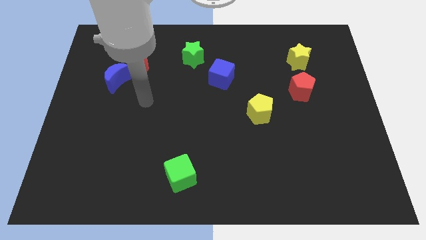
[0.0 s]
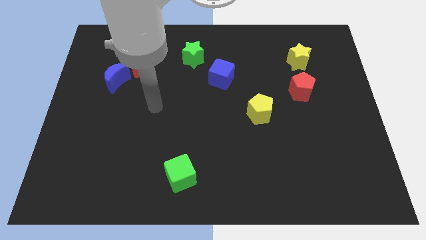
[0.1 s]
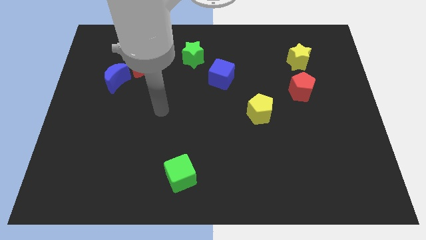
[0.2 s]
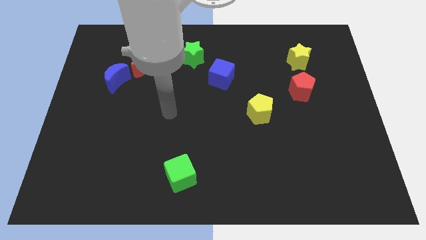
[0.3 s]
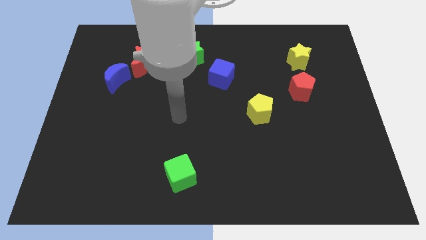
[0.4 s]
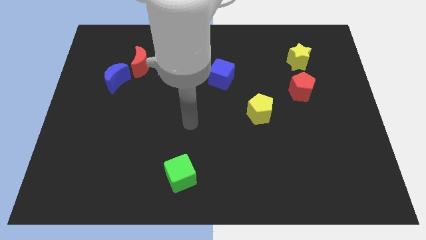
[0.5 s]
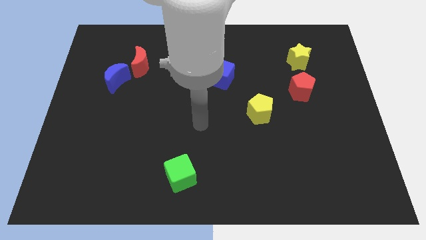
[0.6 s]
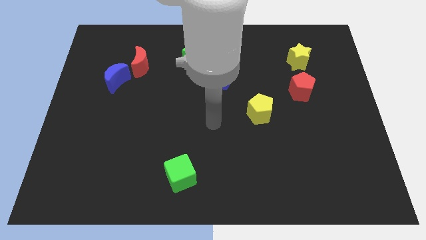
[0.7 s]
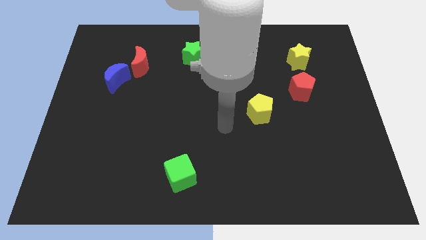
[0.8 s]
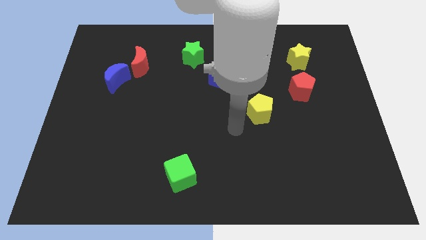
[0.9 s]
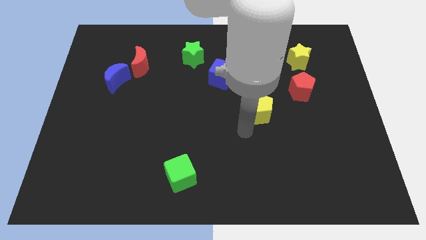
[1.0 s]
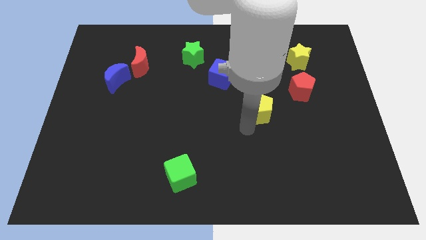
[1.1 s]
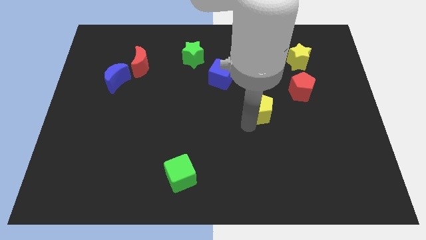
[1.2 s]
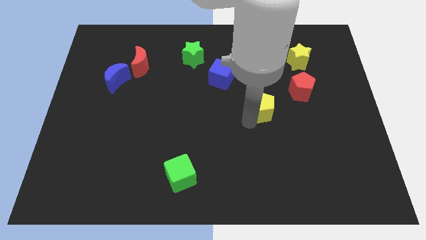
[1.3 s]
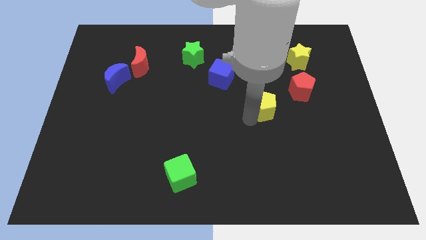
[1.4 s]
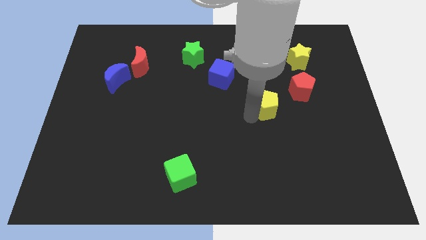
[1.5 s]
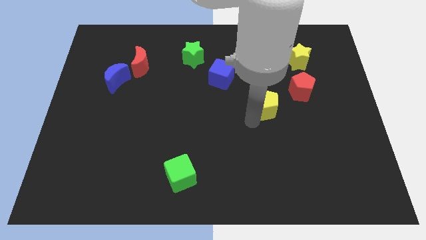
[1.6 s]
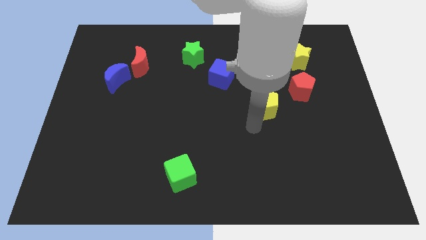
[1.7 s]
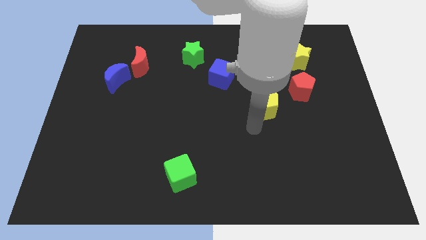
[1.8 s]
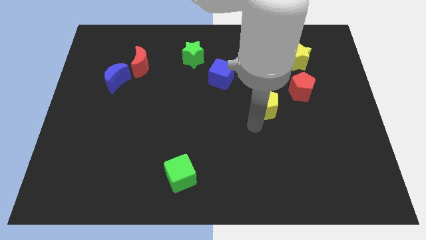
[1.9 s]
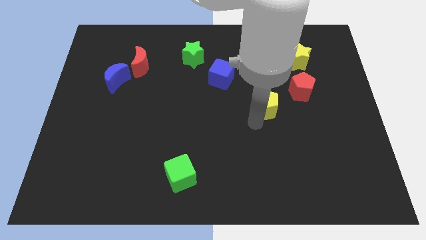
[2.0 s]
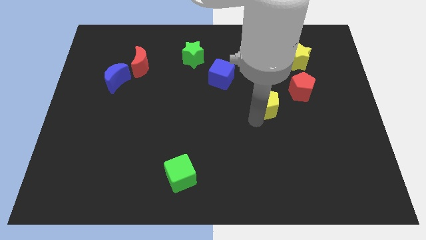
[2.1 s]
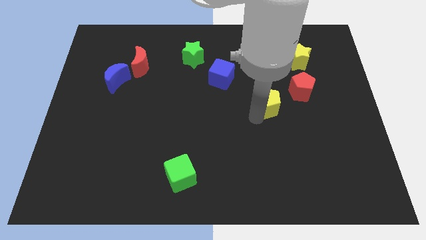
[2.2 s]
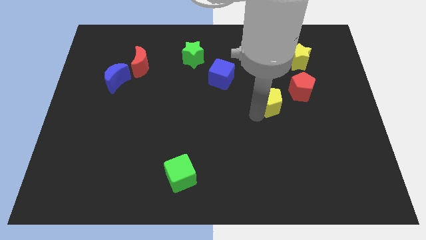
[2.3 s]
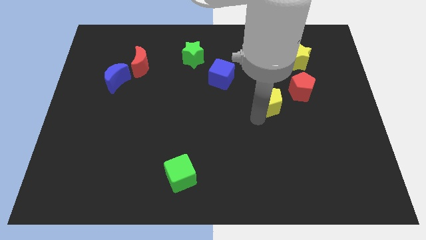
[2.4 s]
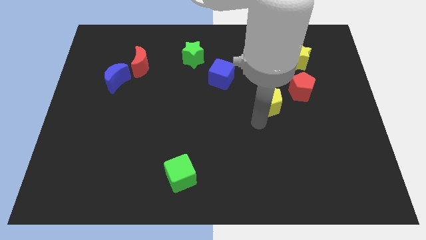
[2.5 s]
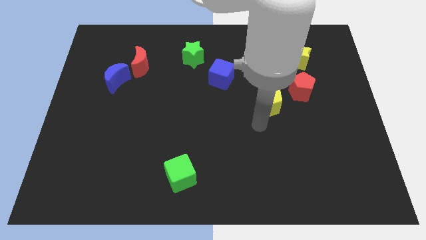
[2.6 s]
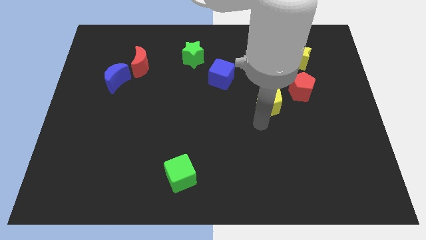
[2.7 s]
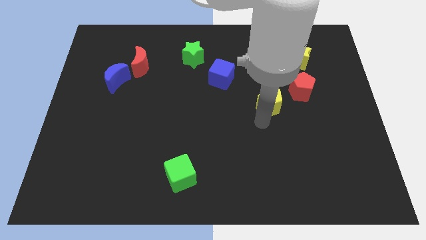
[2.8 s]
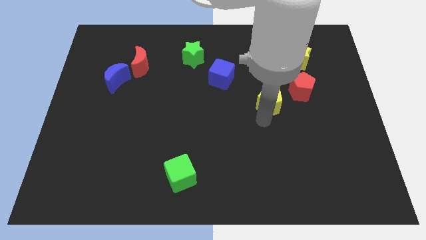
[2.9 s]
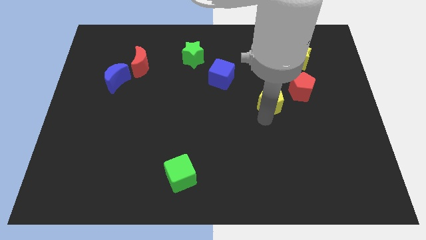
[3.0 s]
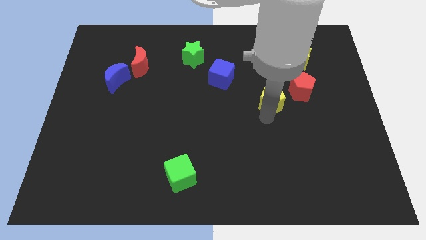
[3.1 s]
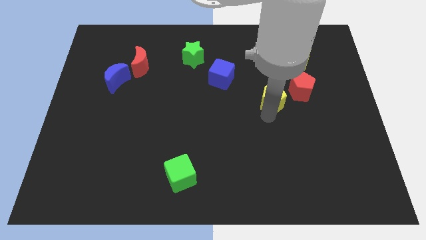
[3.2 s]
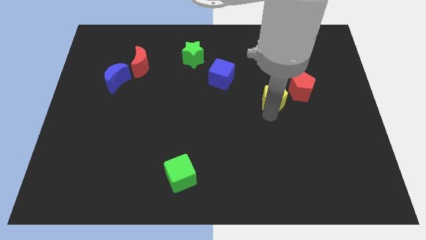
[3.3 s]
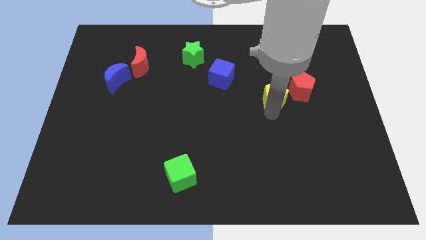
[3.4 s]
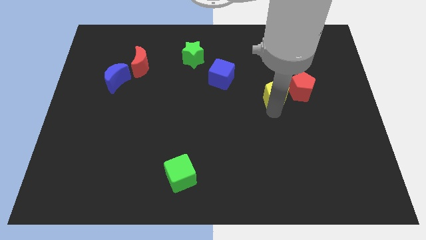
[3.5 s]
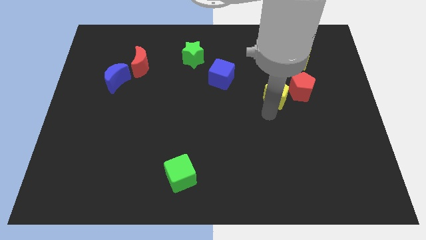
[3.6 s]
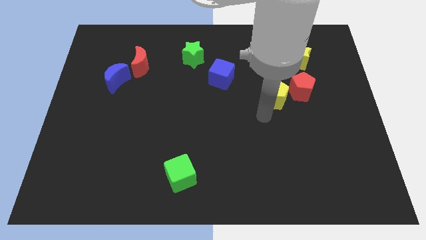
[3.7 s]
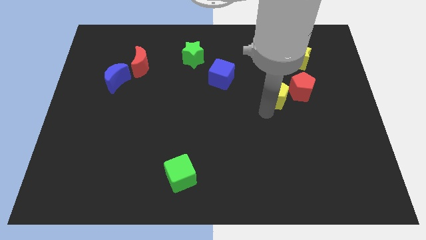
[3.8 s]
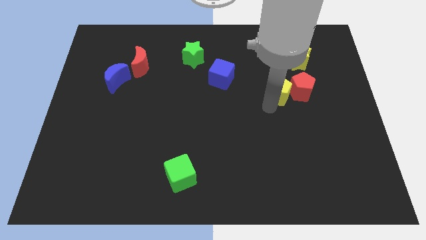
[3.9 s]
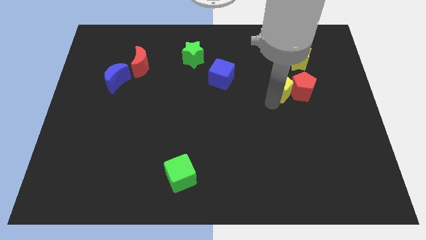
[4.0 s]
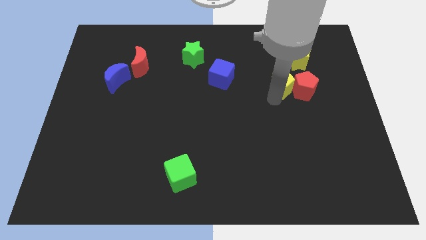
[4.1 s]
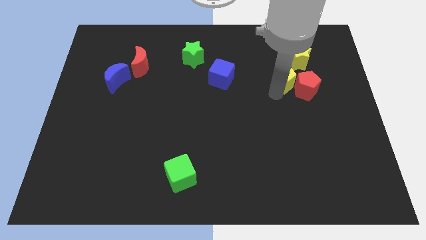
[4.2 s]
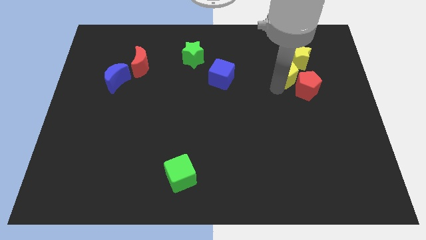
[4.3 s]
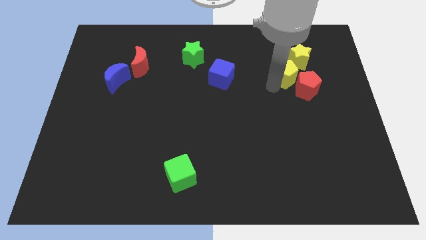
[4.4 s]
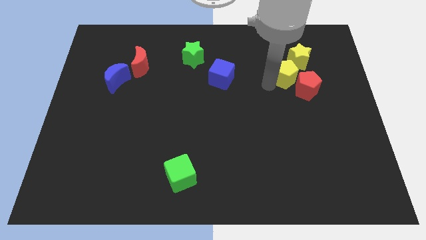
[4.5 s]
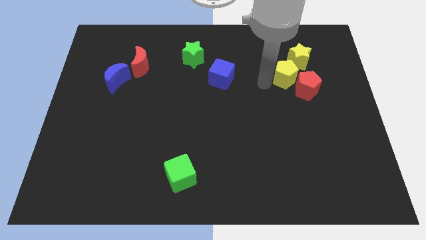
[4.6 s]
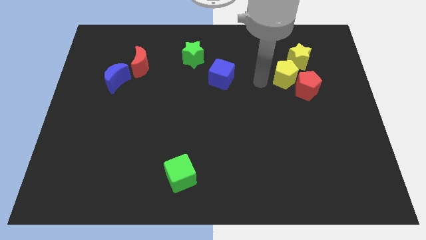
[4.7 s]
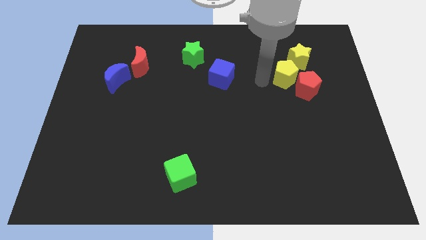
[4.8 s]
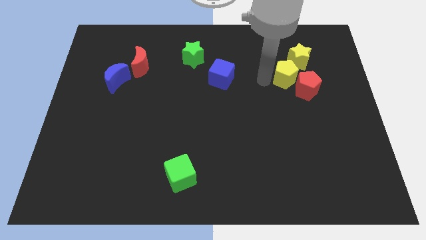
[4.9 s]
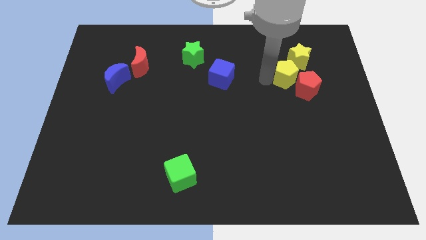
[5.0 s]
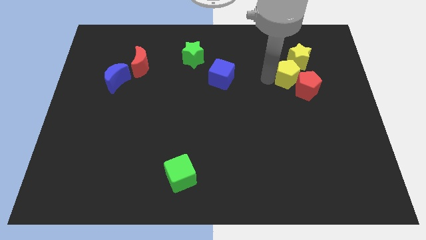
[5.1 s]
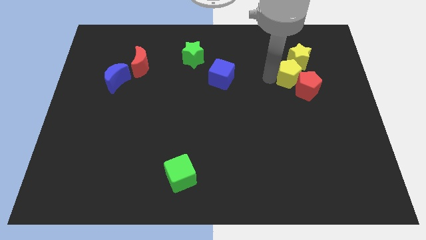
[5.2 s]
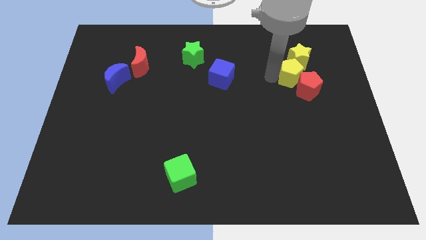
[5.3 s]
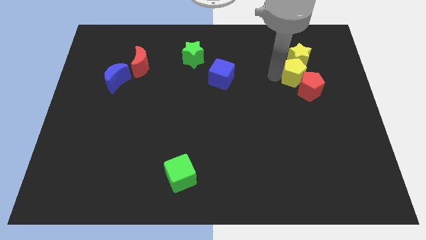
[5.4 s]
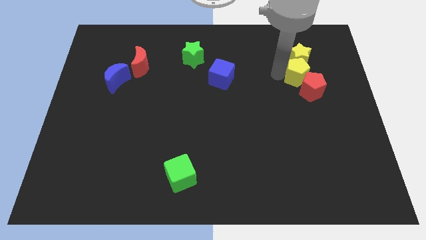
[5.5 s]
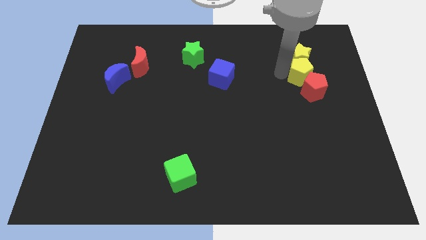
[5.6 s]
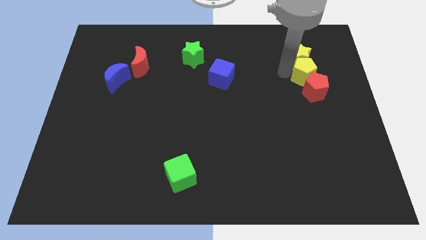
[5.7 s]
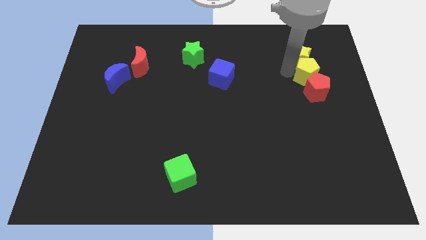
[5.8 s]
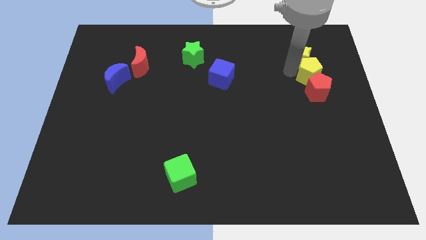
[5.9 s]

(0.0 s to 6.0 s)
slide the yellow pentagon to the top right side of the red pentagon

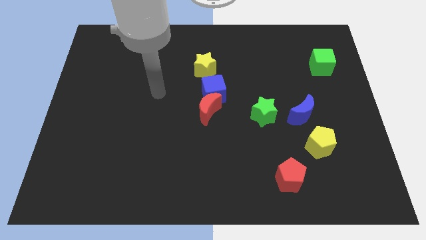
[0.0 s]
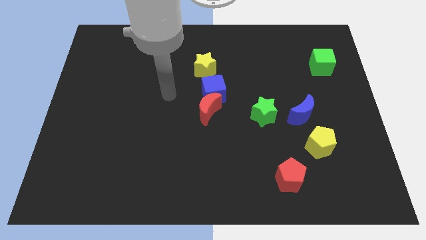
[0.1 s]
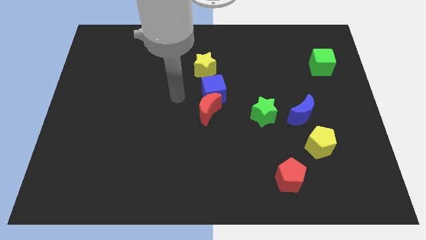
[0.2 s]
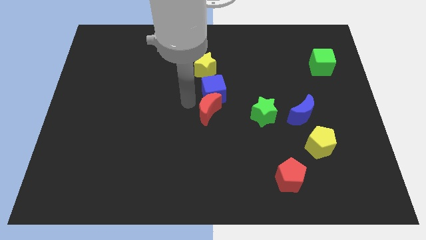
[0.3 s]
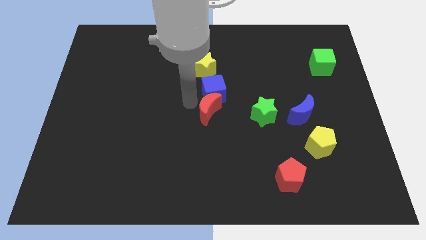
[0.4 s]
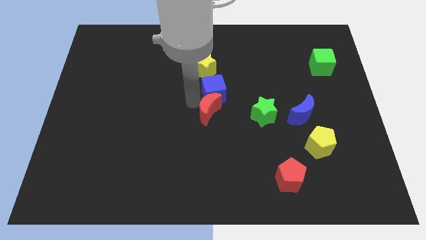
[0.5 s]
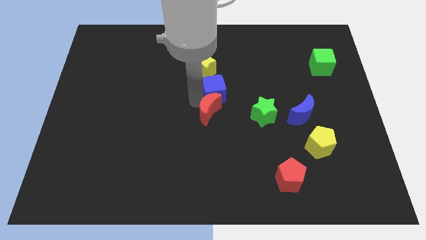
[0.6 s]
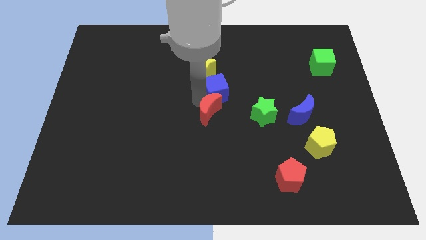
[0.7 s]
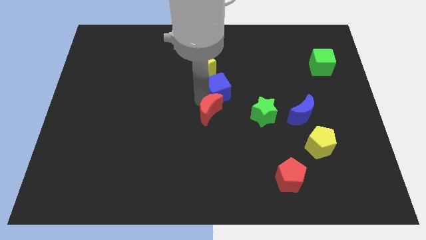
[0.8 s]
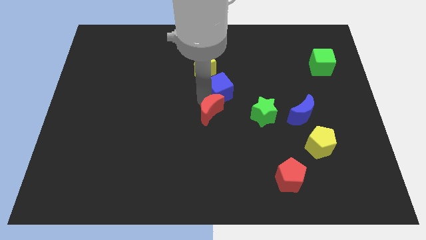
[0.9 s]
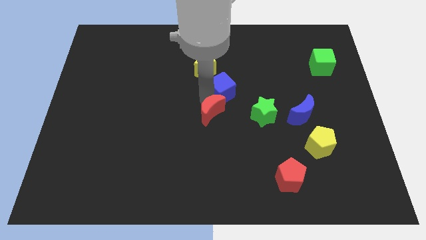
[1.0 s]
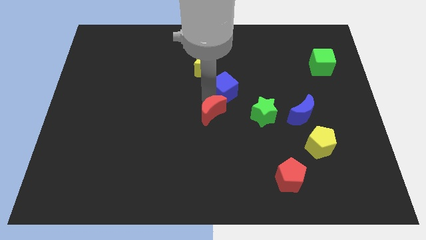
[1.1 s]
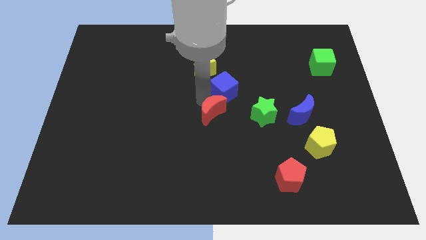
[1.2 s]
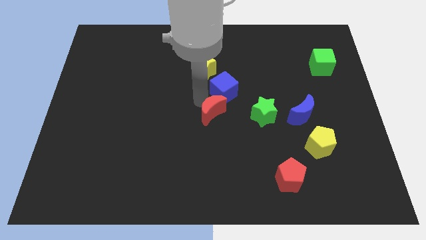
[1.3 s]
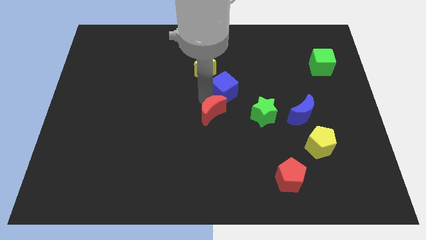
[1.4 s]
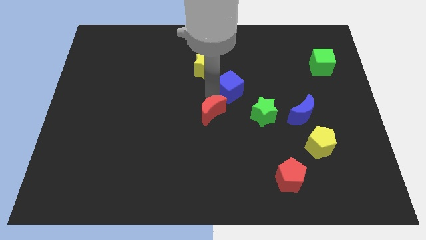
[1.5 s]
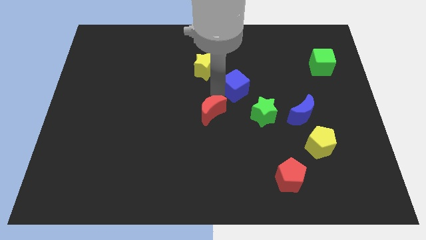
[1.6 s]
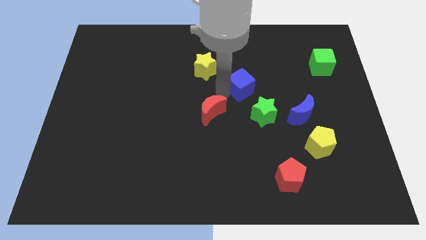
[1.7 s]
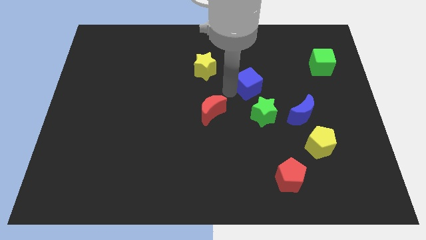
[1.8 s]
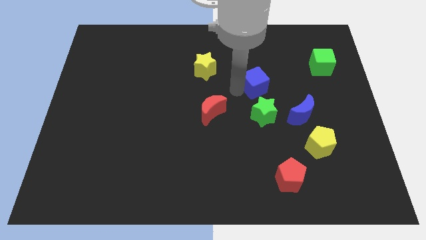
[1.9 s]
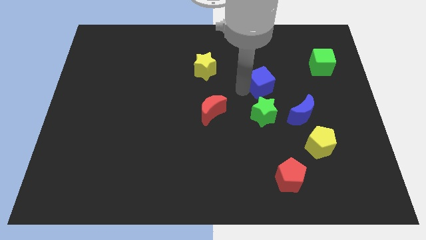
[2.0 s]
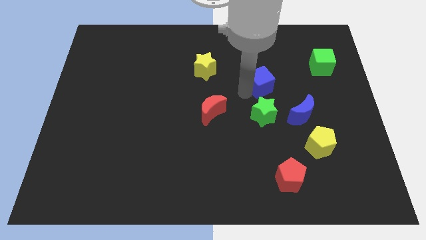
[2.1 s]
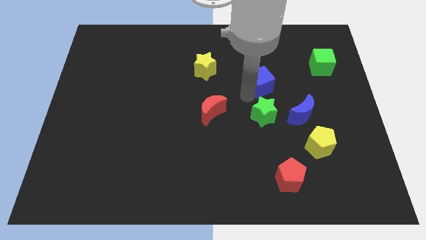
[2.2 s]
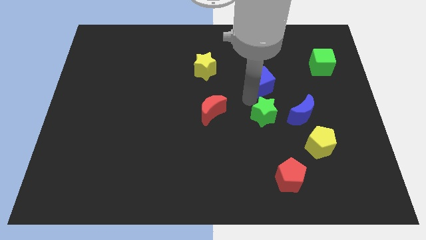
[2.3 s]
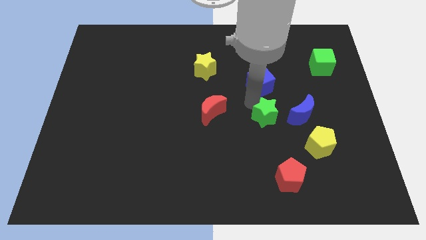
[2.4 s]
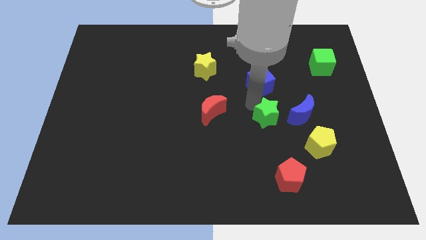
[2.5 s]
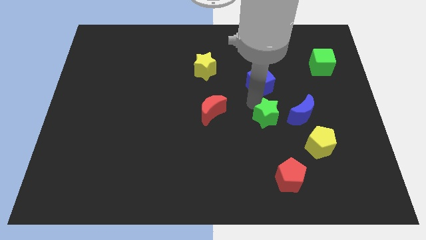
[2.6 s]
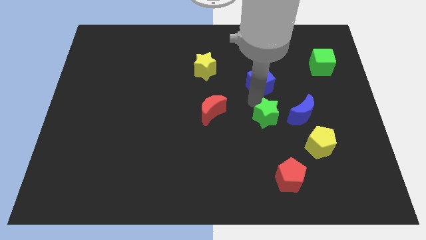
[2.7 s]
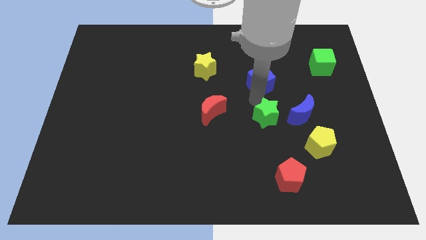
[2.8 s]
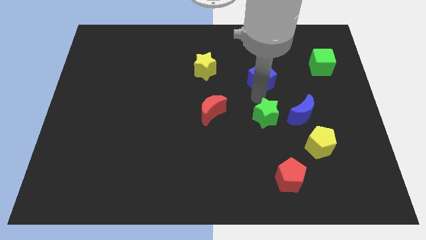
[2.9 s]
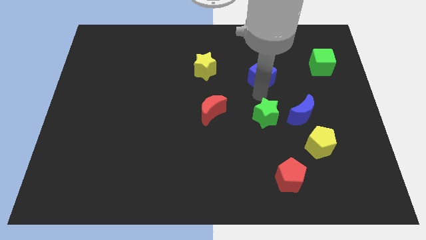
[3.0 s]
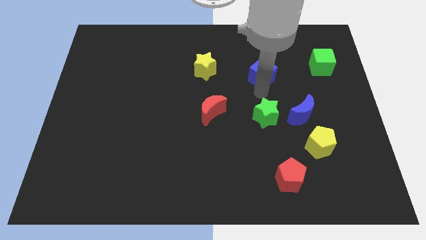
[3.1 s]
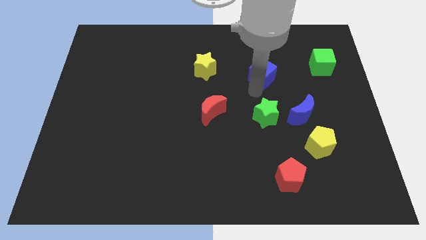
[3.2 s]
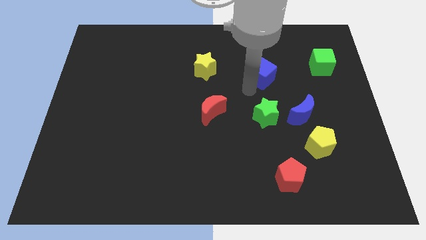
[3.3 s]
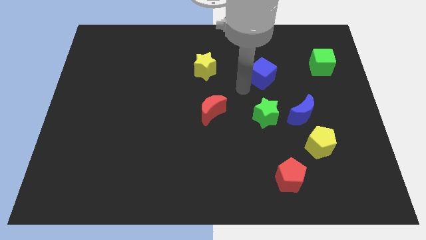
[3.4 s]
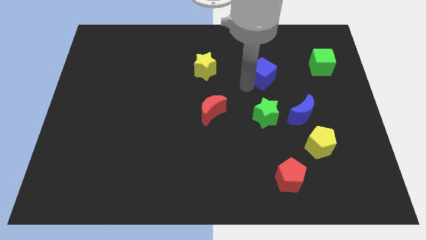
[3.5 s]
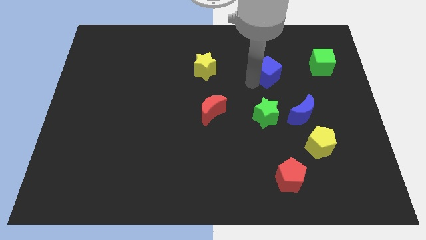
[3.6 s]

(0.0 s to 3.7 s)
move the blue cube left of the green cube
